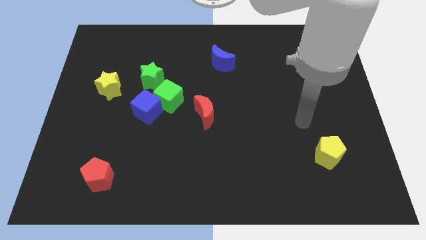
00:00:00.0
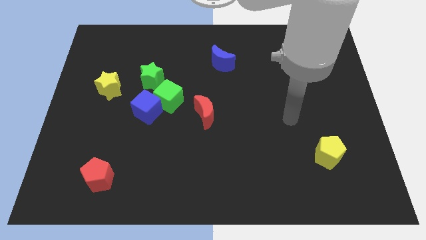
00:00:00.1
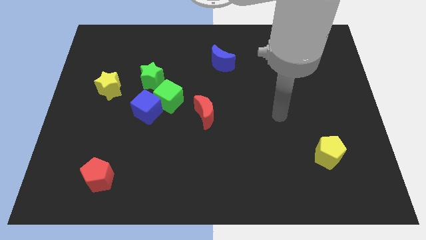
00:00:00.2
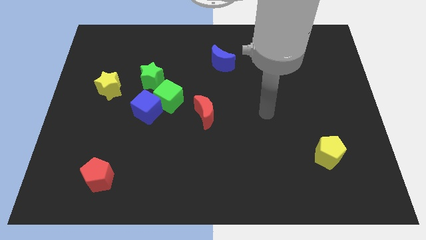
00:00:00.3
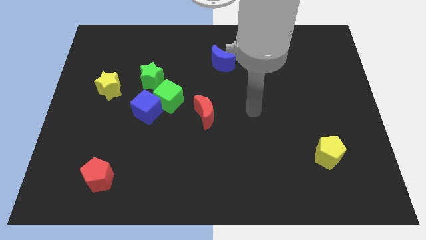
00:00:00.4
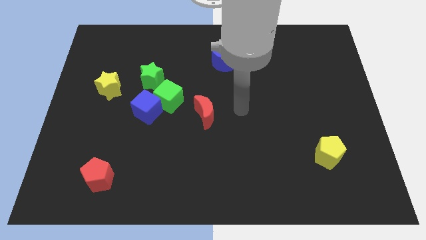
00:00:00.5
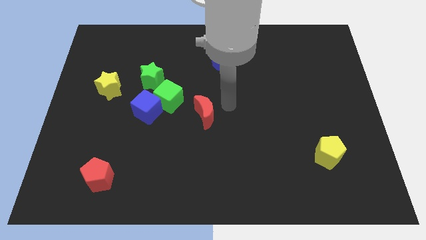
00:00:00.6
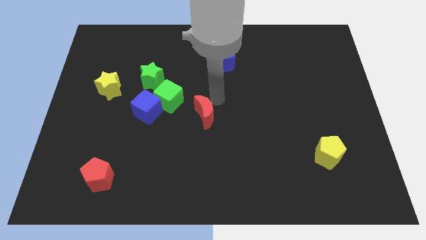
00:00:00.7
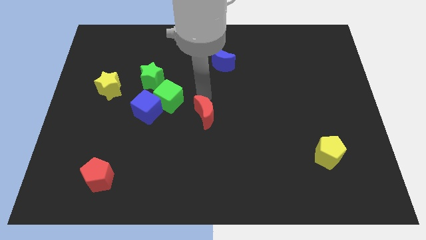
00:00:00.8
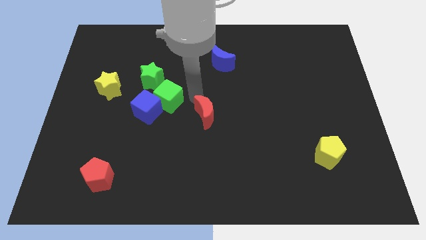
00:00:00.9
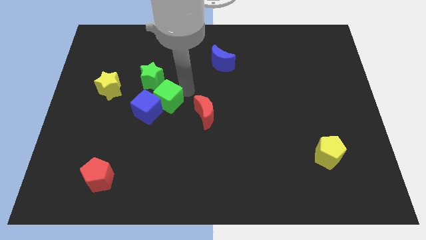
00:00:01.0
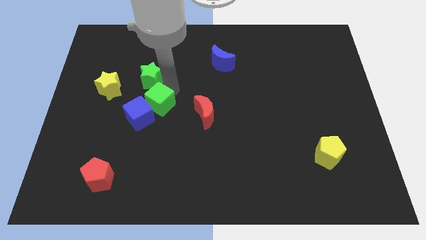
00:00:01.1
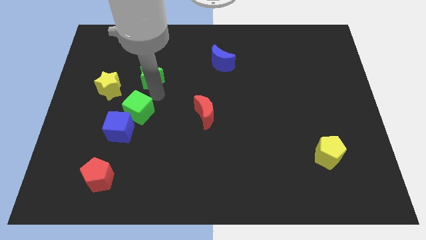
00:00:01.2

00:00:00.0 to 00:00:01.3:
separate the blue cube from the green cube and green star

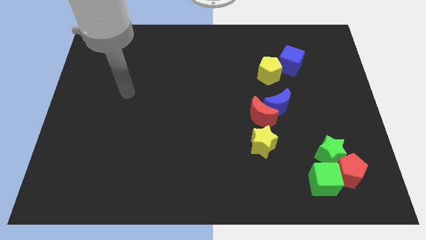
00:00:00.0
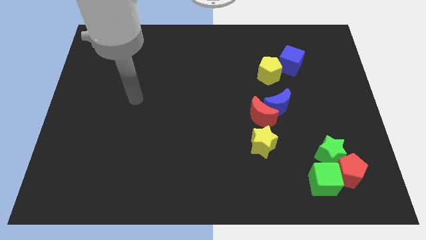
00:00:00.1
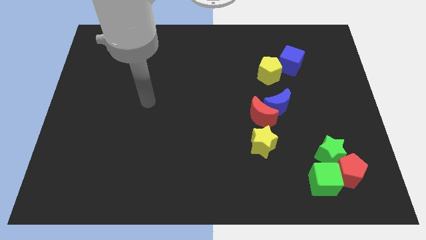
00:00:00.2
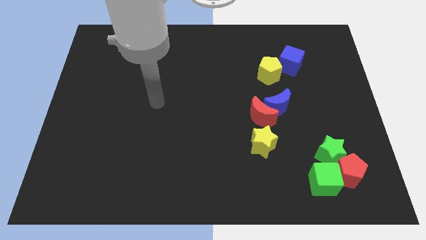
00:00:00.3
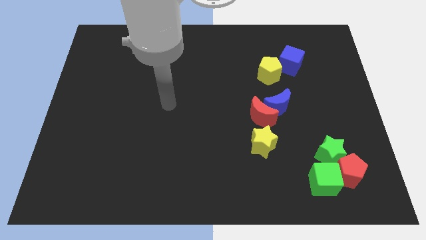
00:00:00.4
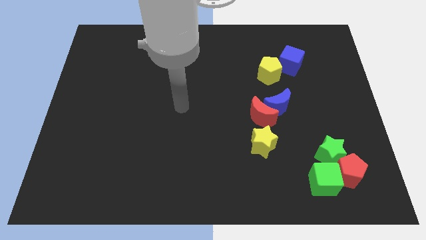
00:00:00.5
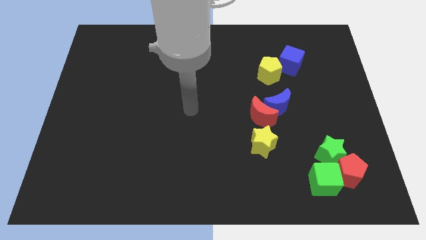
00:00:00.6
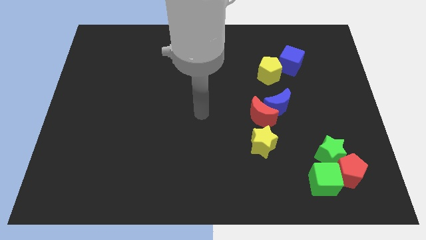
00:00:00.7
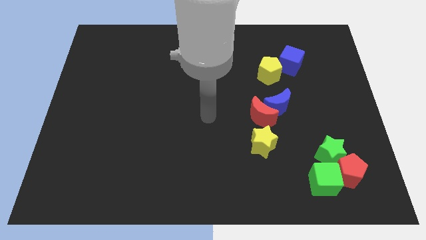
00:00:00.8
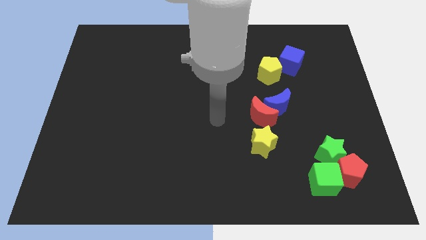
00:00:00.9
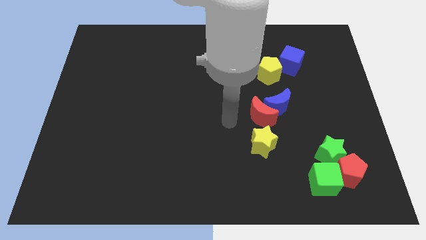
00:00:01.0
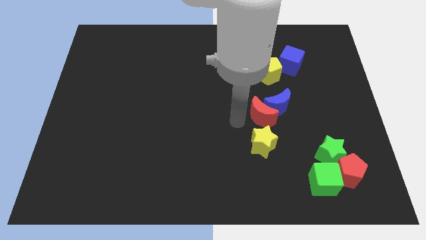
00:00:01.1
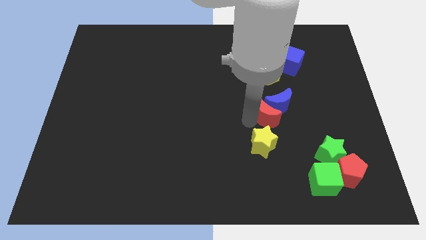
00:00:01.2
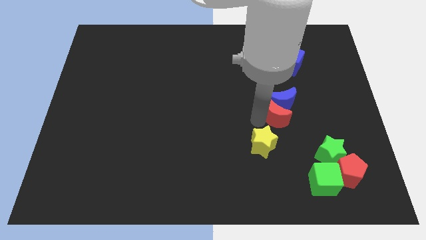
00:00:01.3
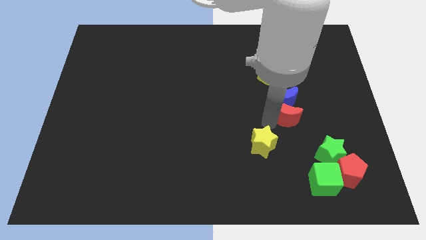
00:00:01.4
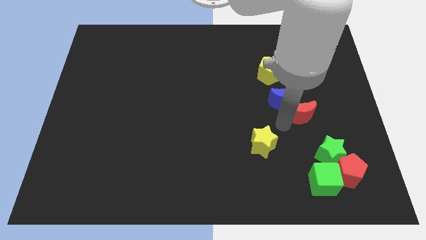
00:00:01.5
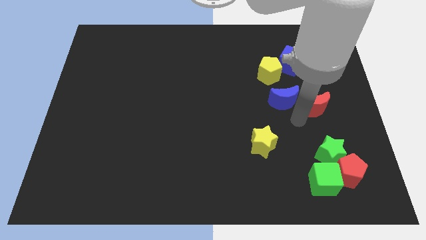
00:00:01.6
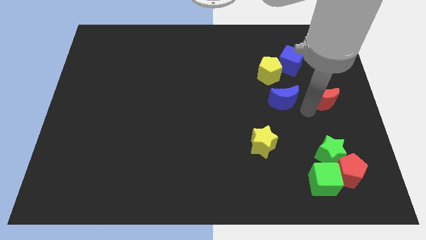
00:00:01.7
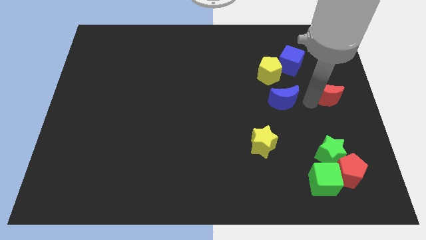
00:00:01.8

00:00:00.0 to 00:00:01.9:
move the blue moon away from the red moon

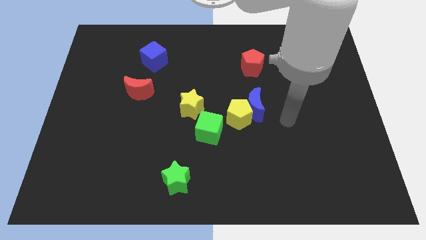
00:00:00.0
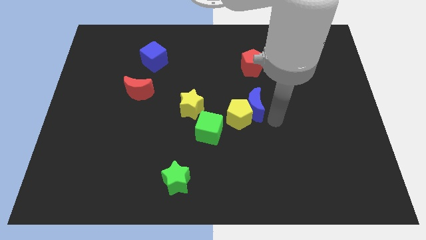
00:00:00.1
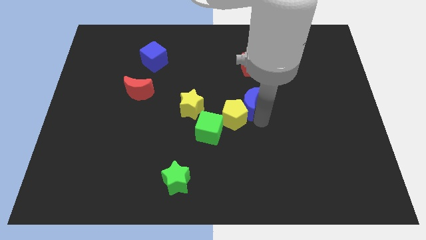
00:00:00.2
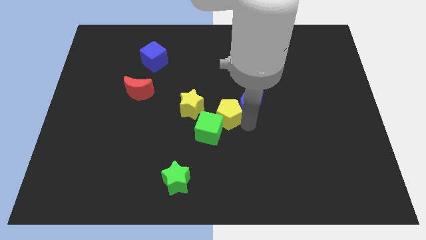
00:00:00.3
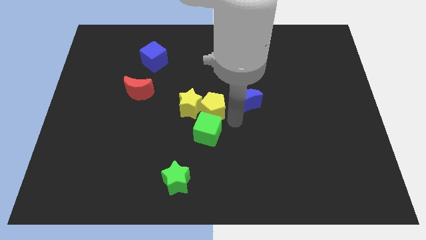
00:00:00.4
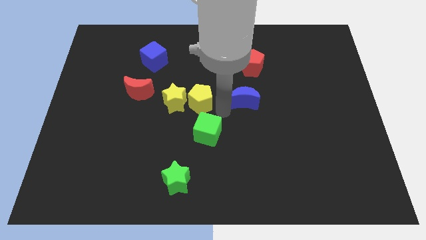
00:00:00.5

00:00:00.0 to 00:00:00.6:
pull the blue moon apart from the yellow pentagon

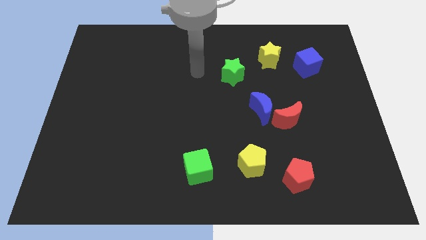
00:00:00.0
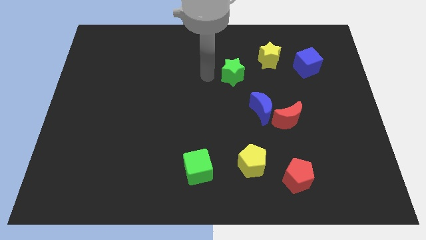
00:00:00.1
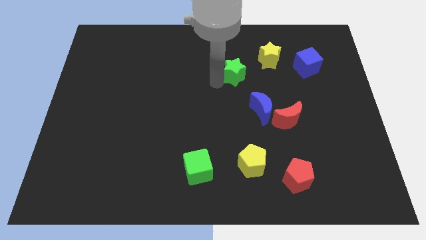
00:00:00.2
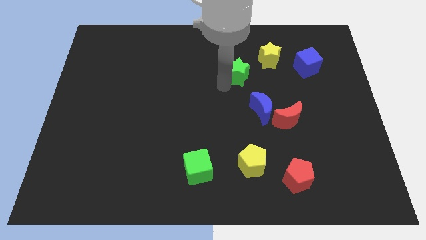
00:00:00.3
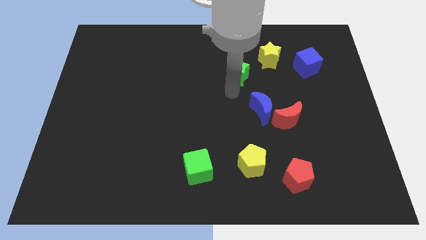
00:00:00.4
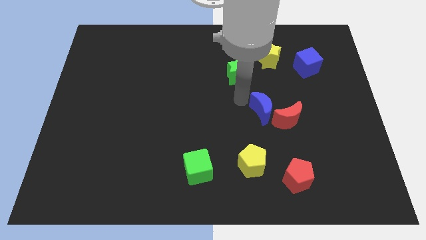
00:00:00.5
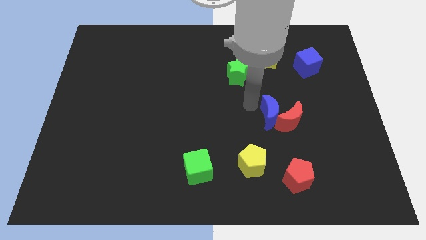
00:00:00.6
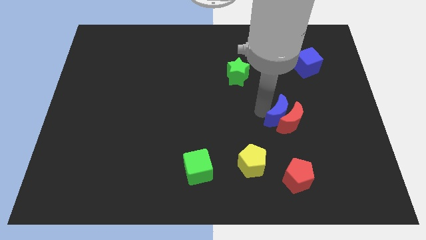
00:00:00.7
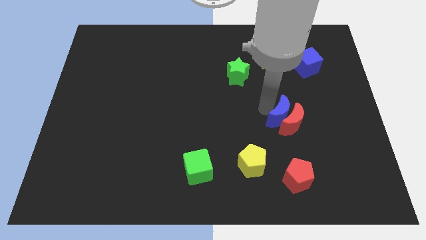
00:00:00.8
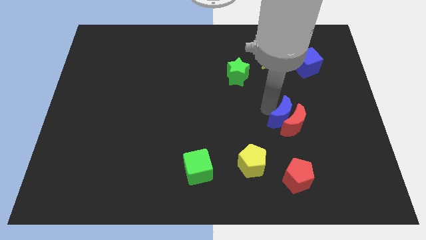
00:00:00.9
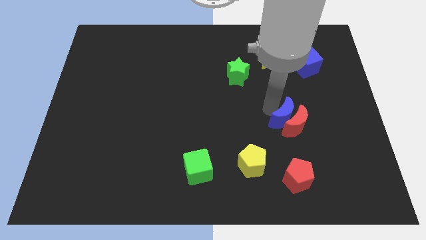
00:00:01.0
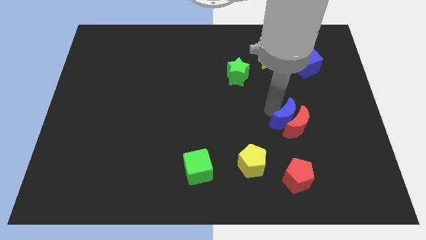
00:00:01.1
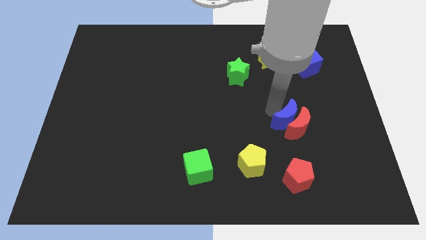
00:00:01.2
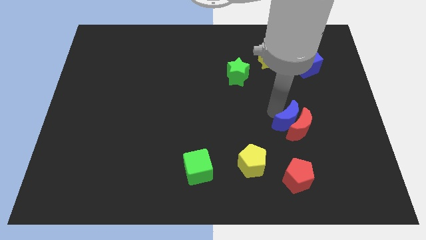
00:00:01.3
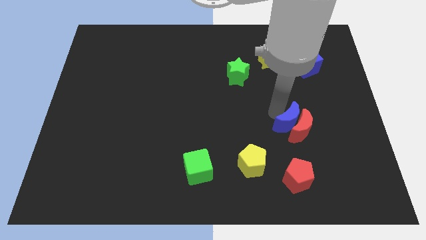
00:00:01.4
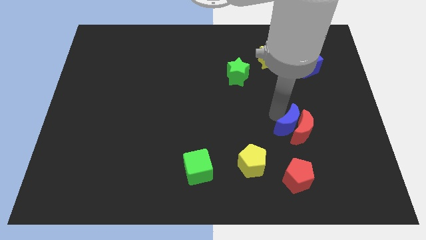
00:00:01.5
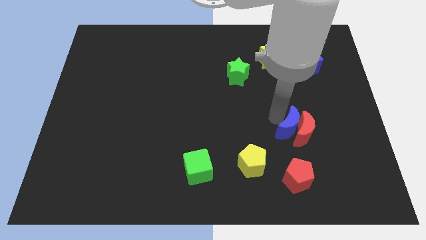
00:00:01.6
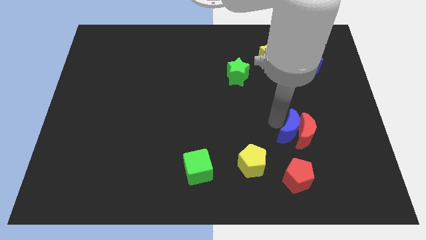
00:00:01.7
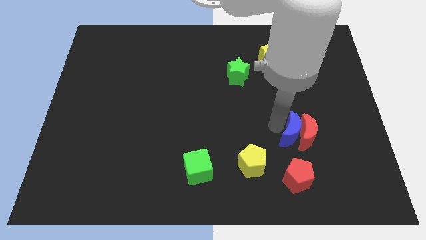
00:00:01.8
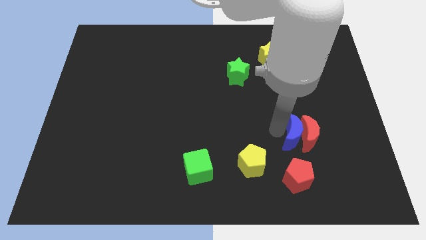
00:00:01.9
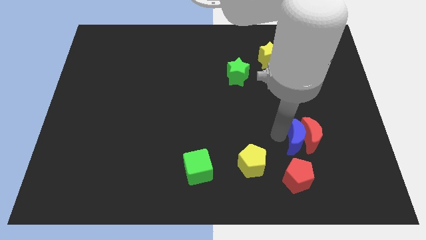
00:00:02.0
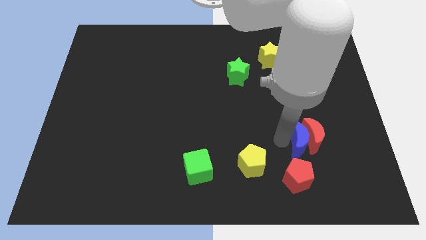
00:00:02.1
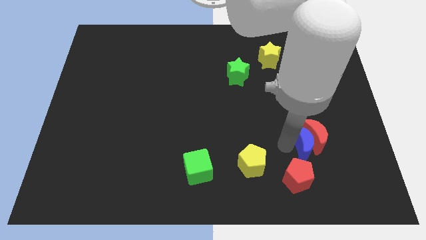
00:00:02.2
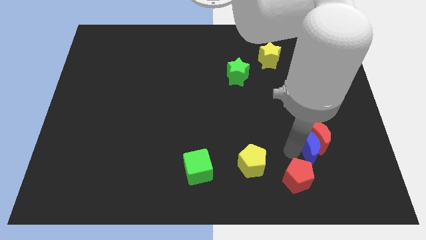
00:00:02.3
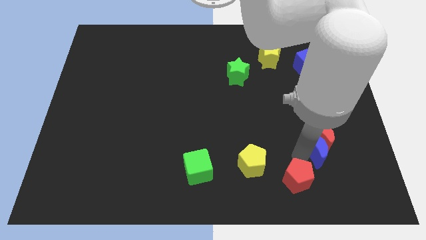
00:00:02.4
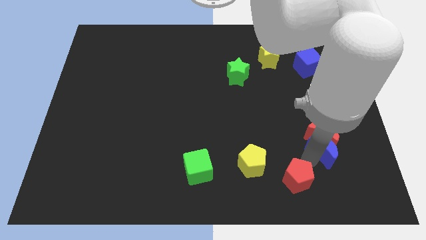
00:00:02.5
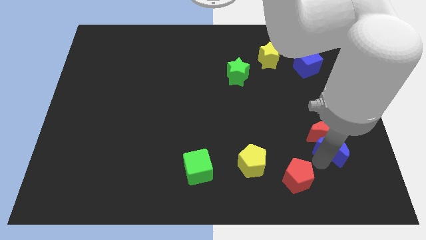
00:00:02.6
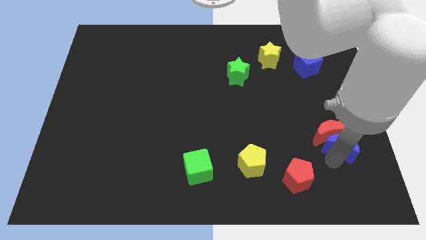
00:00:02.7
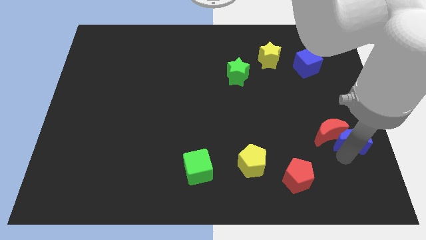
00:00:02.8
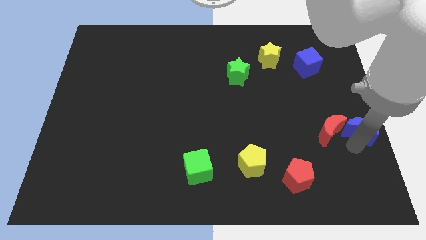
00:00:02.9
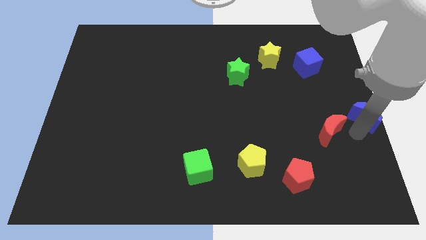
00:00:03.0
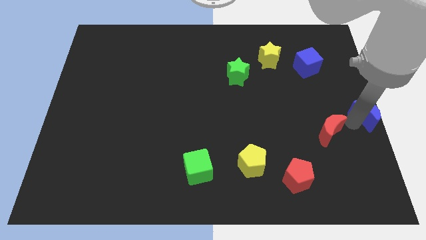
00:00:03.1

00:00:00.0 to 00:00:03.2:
move the red moon away from the blue moon

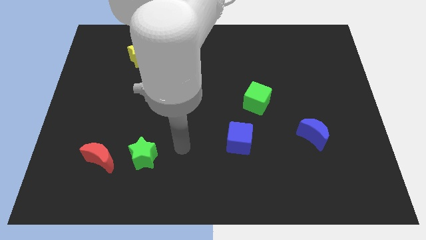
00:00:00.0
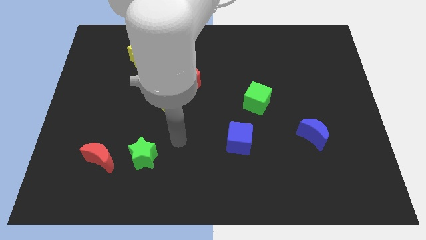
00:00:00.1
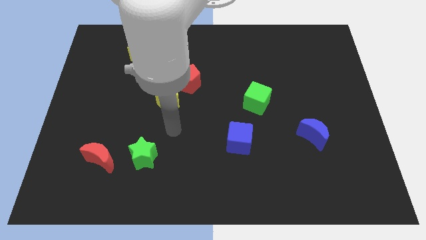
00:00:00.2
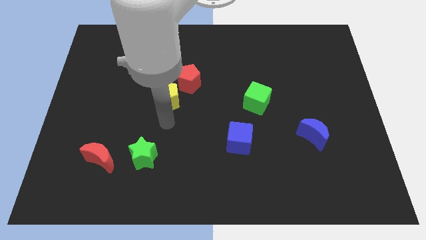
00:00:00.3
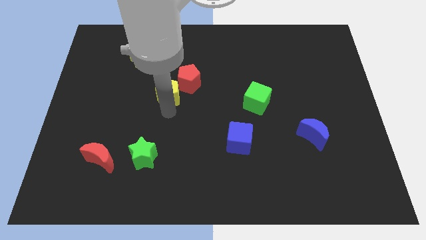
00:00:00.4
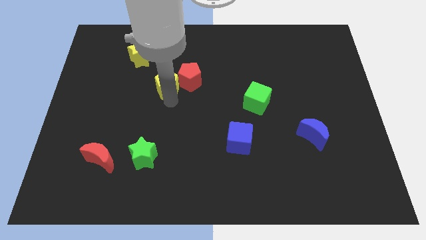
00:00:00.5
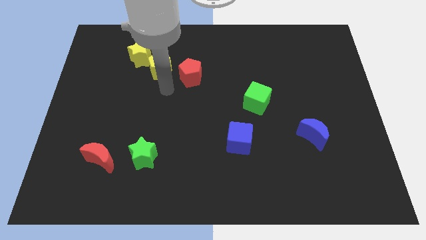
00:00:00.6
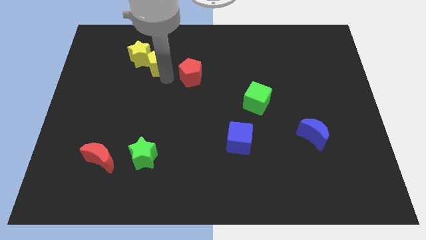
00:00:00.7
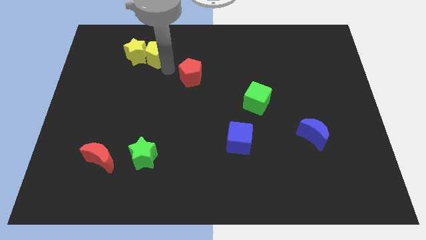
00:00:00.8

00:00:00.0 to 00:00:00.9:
separate the red pentagon from the yellow pentagon

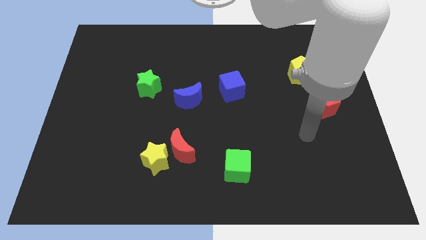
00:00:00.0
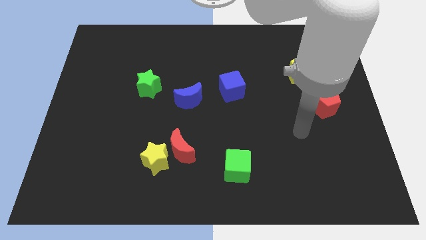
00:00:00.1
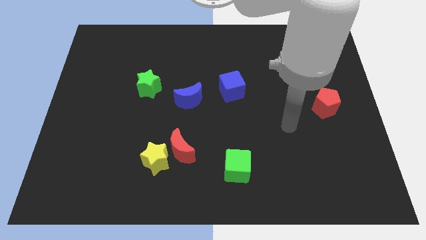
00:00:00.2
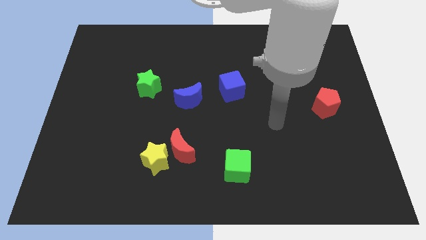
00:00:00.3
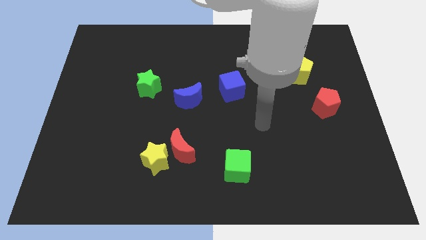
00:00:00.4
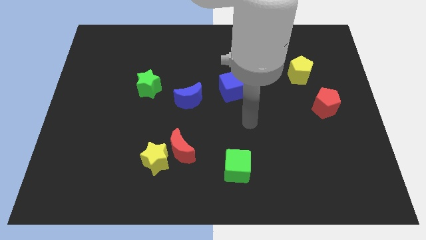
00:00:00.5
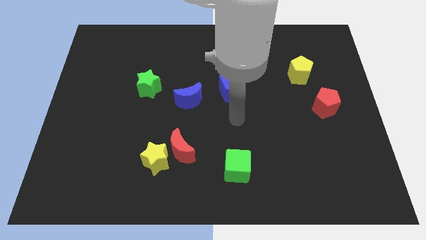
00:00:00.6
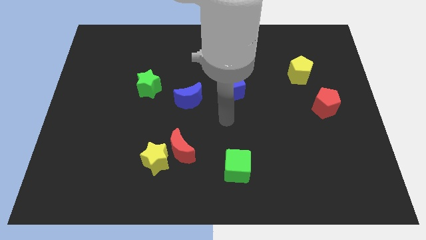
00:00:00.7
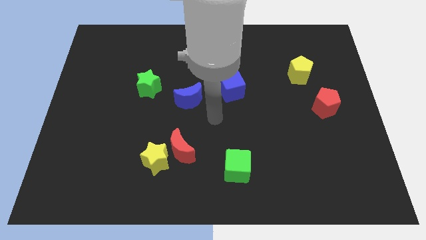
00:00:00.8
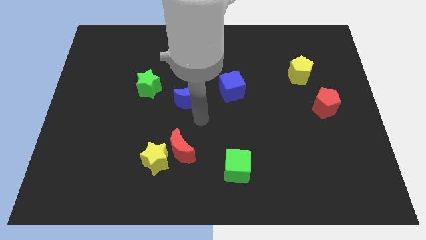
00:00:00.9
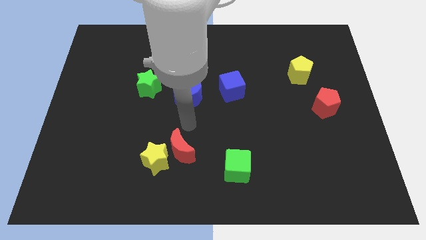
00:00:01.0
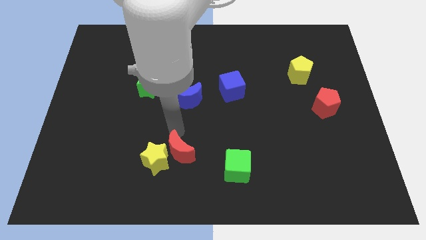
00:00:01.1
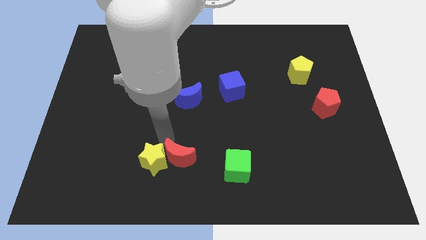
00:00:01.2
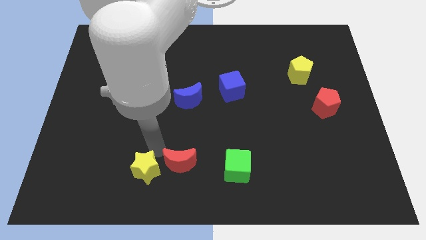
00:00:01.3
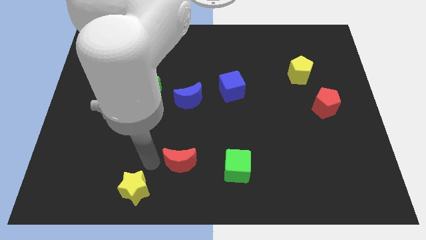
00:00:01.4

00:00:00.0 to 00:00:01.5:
pull the red moon apart from the yellow star
